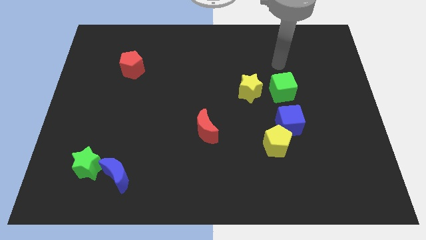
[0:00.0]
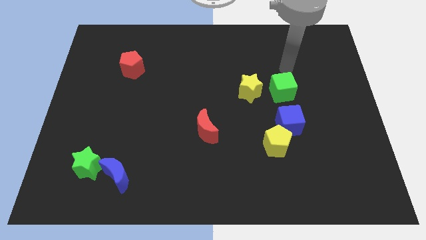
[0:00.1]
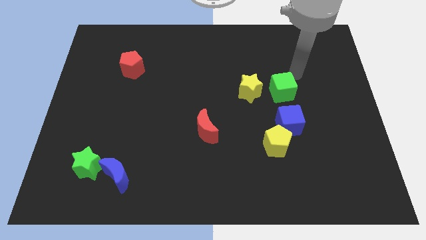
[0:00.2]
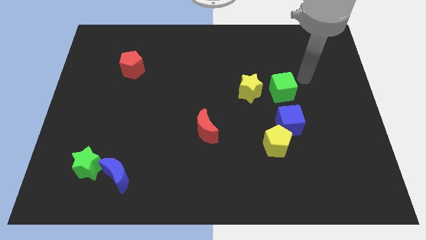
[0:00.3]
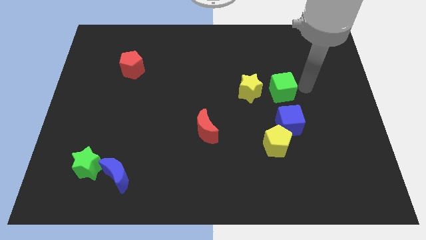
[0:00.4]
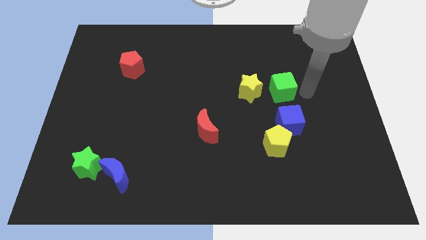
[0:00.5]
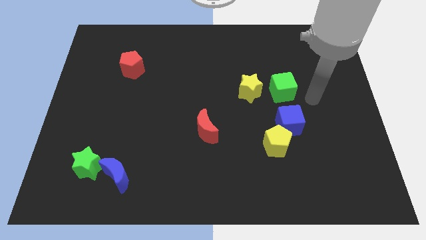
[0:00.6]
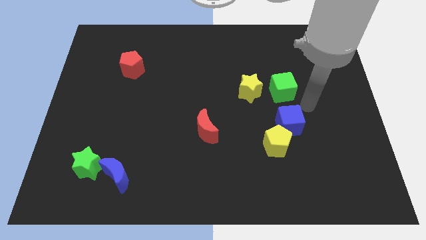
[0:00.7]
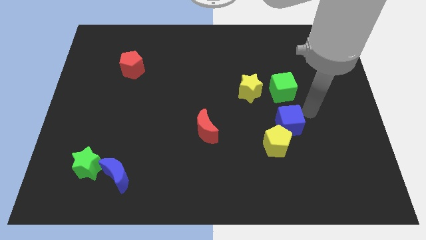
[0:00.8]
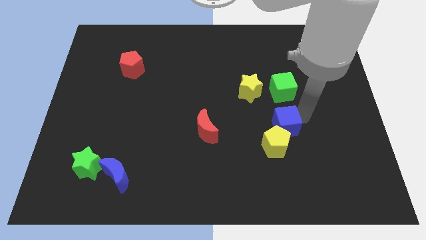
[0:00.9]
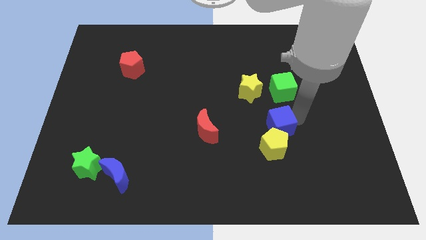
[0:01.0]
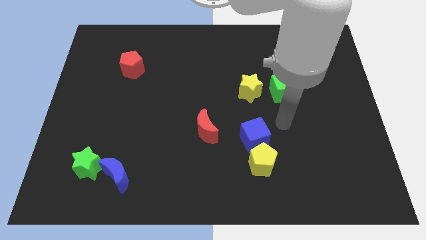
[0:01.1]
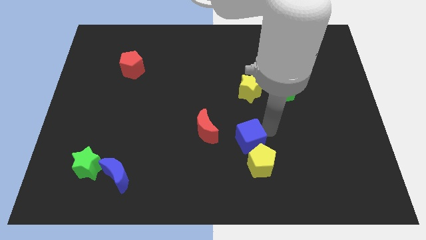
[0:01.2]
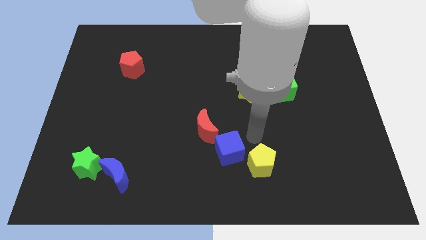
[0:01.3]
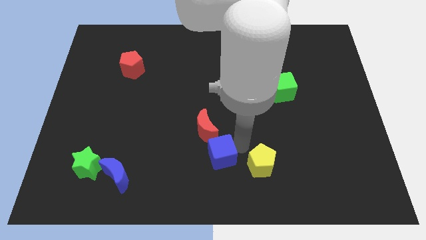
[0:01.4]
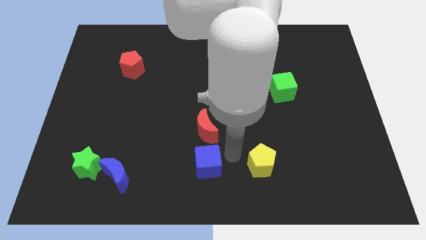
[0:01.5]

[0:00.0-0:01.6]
move the yellow pentagon away from the blue cube

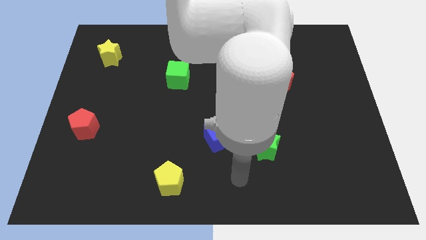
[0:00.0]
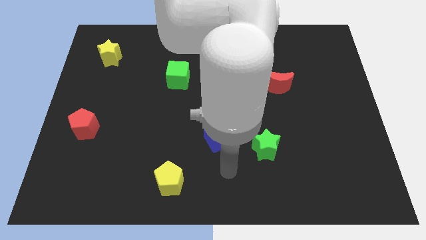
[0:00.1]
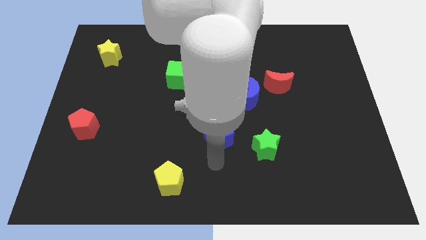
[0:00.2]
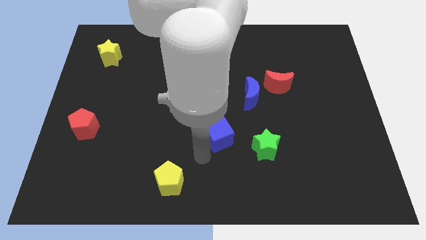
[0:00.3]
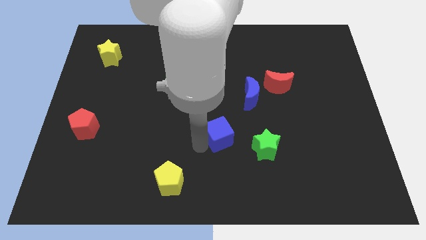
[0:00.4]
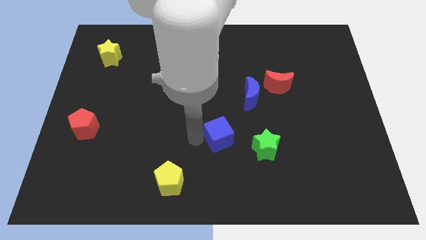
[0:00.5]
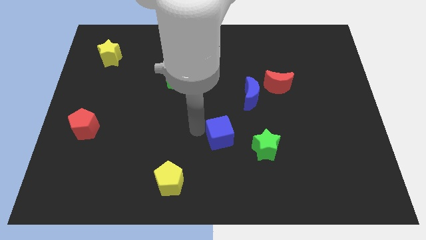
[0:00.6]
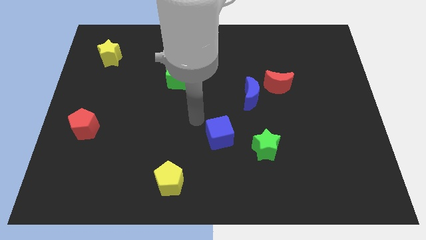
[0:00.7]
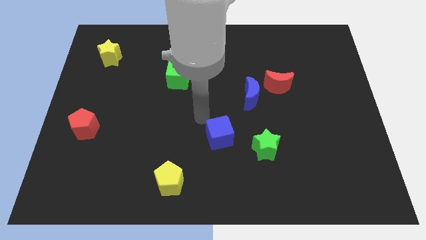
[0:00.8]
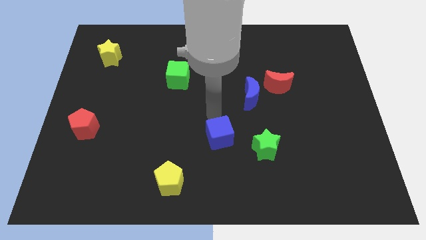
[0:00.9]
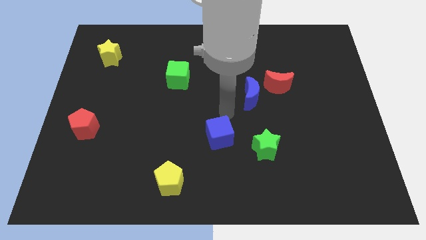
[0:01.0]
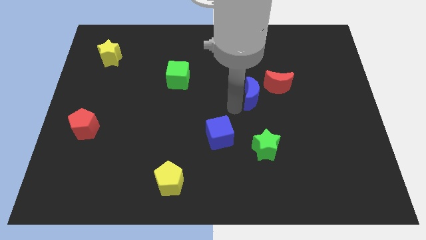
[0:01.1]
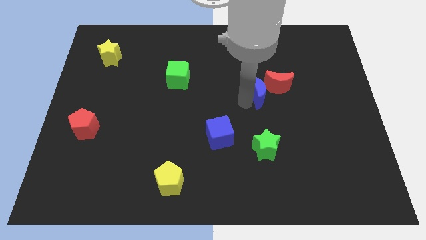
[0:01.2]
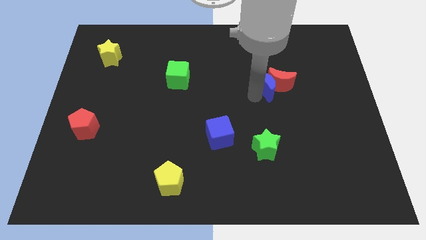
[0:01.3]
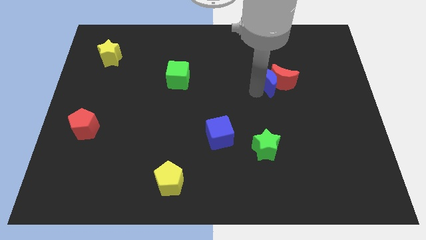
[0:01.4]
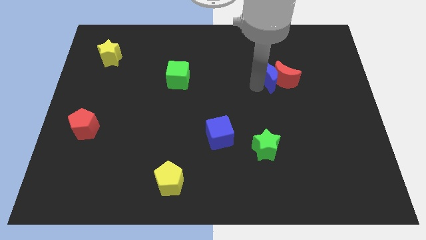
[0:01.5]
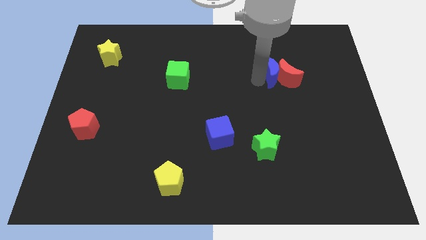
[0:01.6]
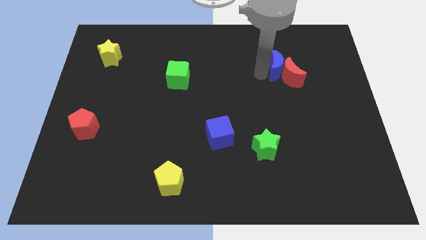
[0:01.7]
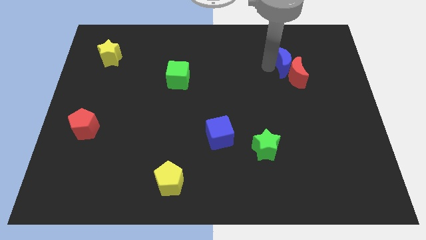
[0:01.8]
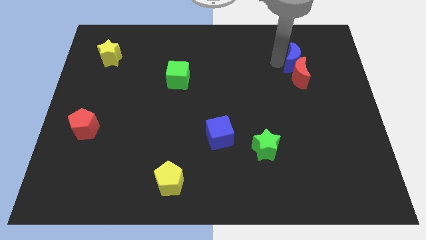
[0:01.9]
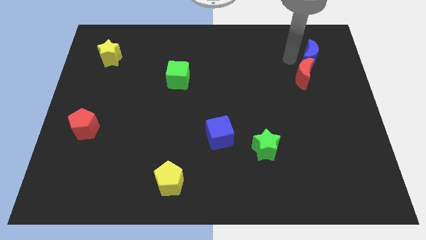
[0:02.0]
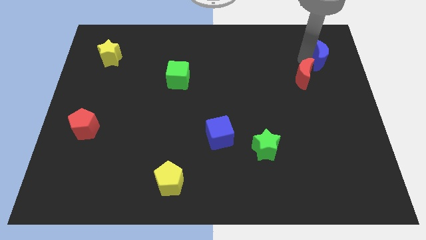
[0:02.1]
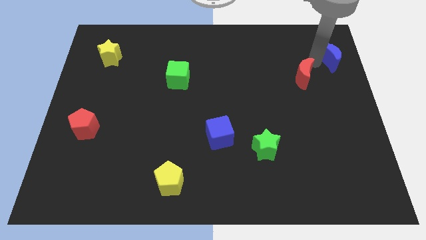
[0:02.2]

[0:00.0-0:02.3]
pull the red moon apart from the blue moon

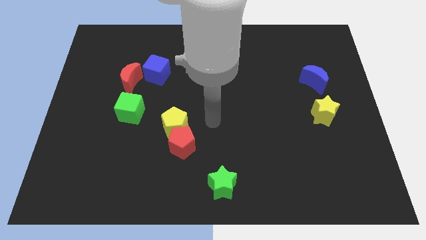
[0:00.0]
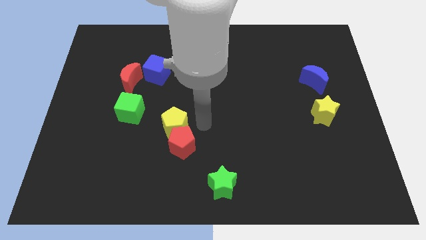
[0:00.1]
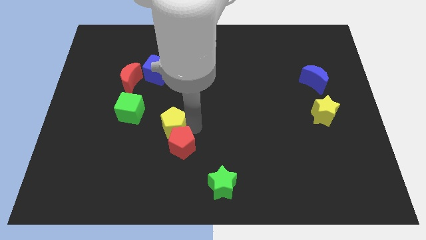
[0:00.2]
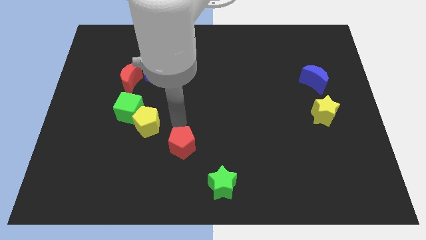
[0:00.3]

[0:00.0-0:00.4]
separate the red pentagon from the yellow pentagon

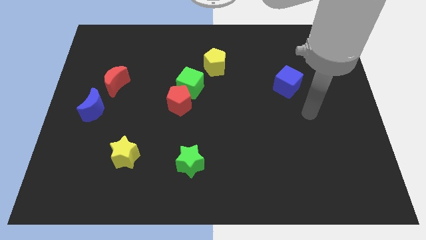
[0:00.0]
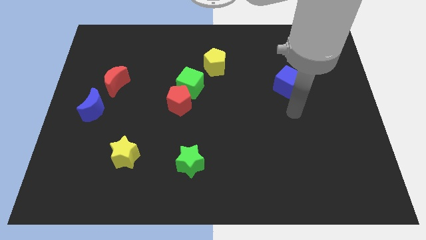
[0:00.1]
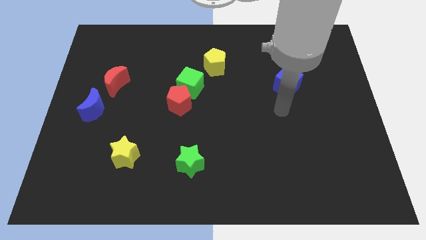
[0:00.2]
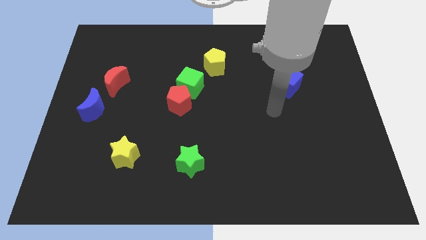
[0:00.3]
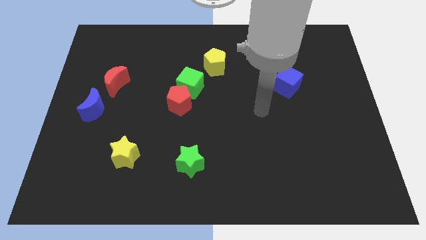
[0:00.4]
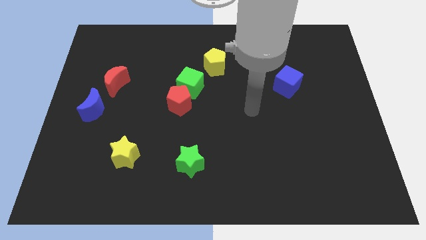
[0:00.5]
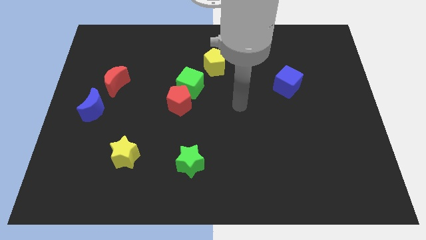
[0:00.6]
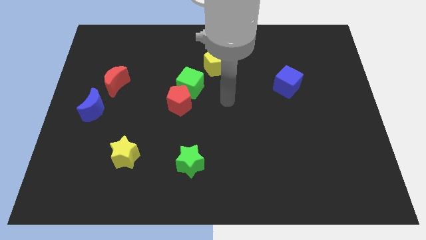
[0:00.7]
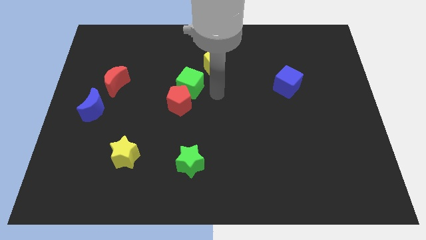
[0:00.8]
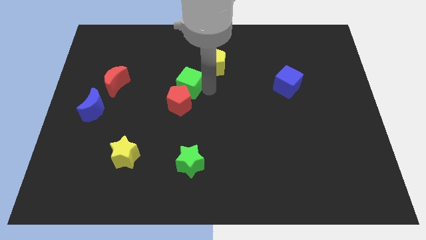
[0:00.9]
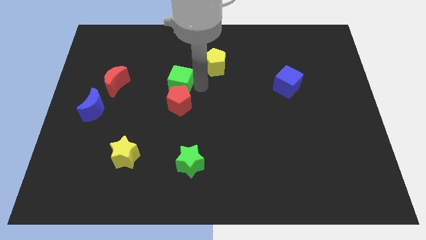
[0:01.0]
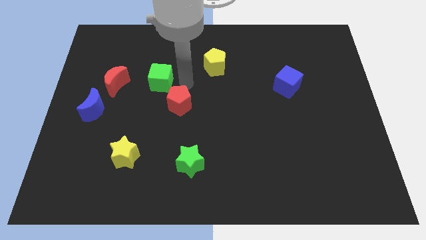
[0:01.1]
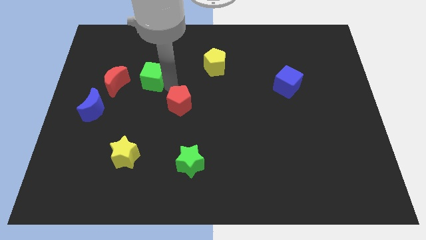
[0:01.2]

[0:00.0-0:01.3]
separate the red pentagon from the green cube

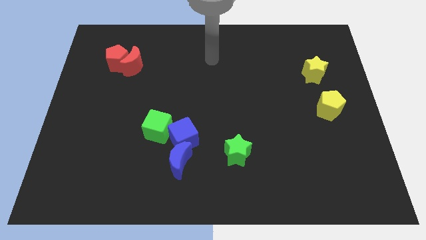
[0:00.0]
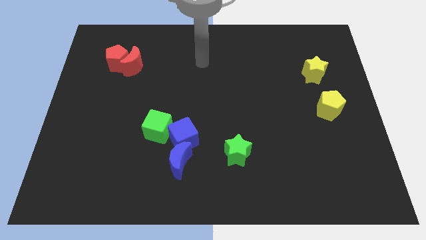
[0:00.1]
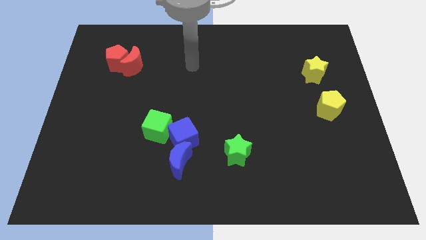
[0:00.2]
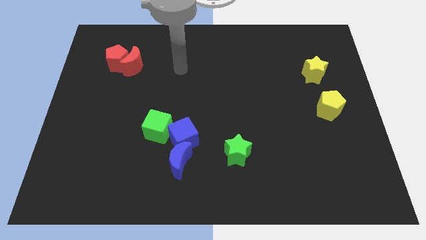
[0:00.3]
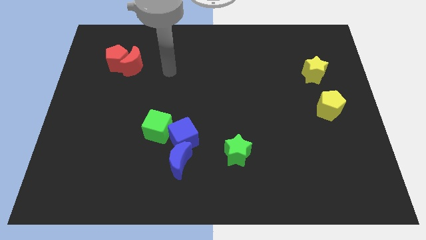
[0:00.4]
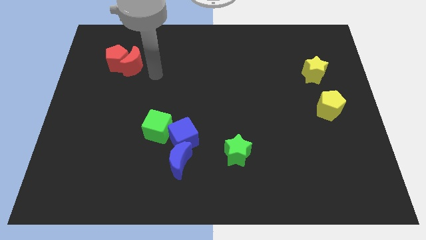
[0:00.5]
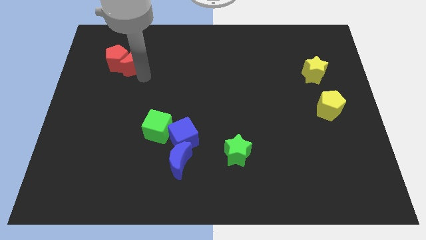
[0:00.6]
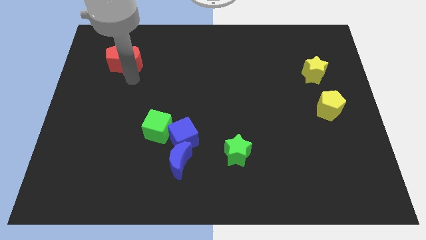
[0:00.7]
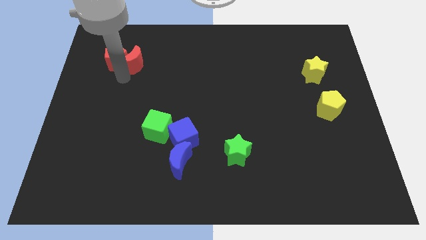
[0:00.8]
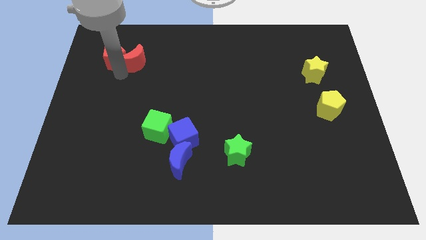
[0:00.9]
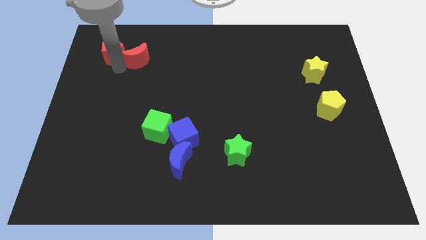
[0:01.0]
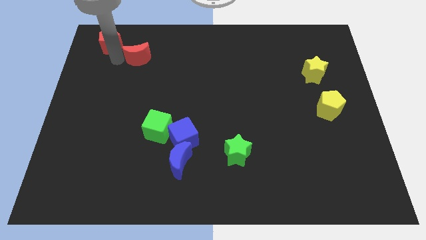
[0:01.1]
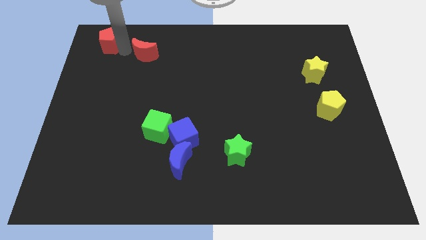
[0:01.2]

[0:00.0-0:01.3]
move the red moon away from the red pentagon

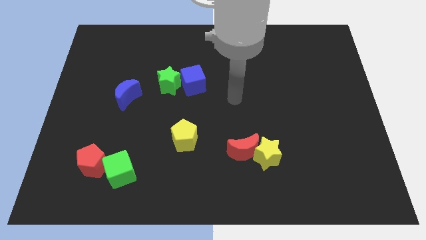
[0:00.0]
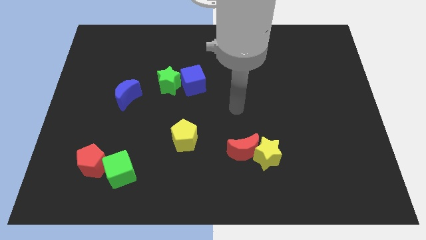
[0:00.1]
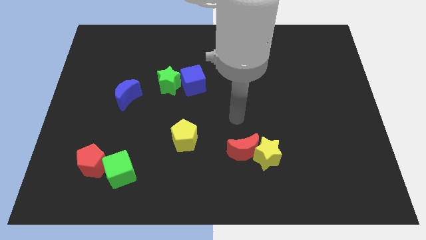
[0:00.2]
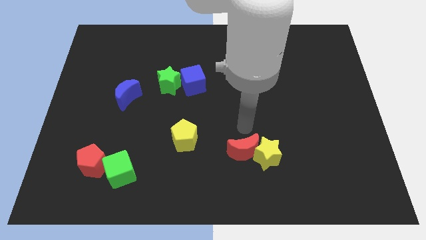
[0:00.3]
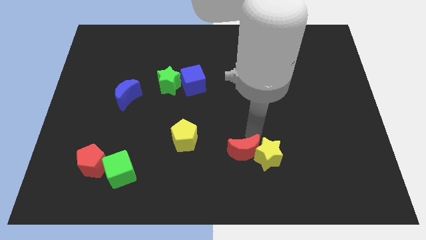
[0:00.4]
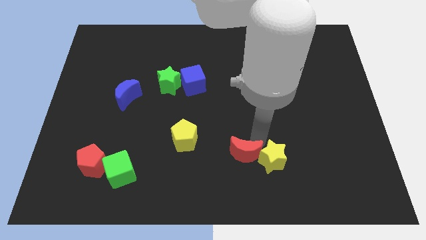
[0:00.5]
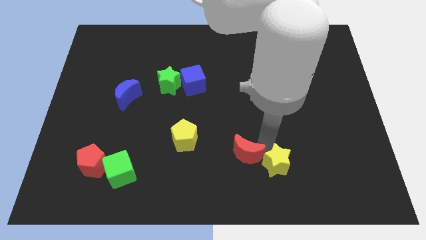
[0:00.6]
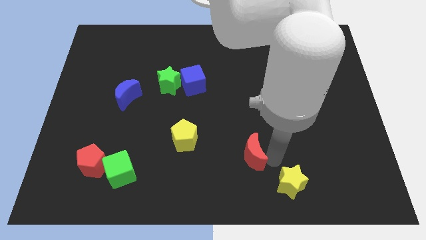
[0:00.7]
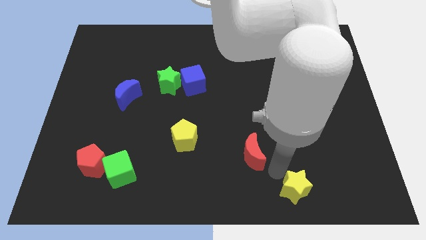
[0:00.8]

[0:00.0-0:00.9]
separate the red moon from the yellow star

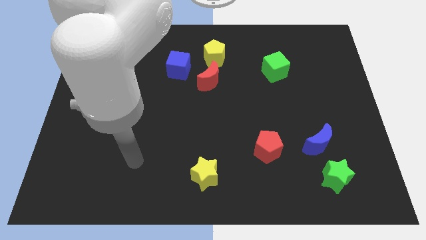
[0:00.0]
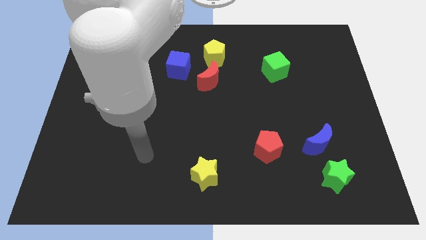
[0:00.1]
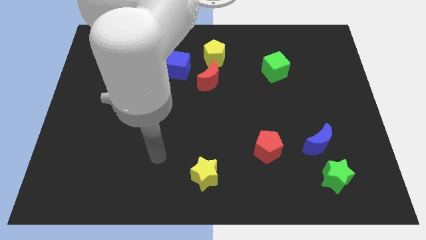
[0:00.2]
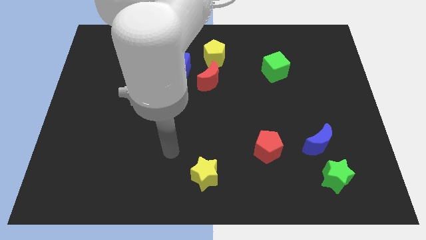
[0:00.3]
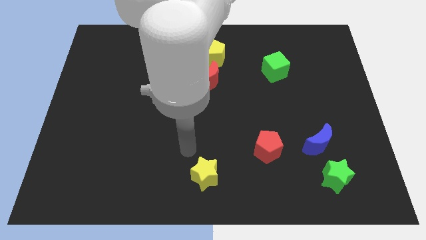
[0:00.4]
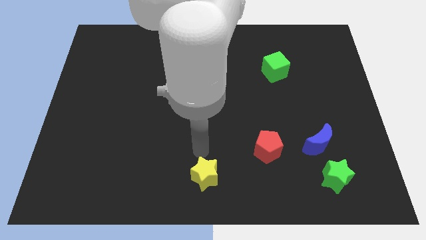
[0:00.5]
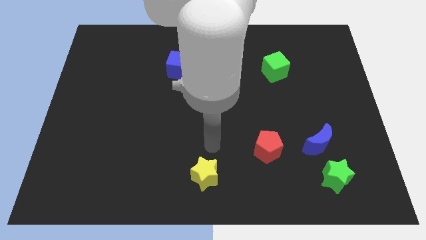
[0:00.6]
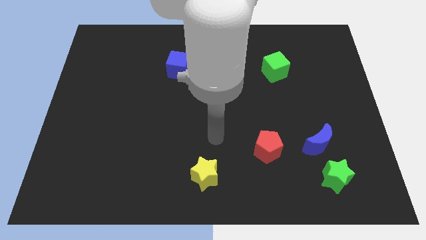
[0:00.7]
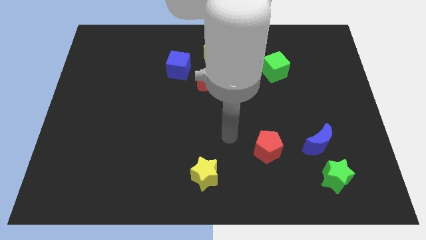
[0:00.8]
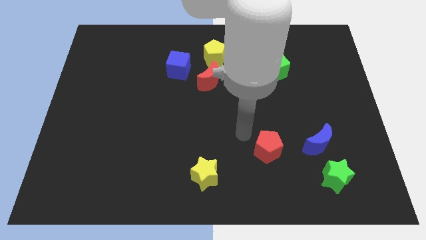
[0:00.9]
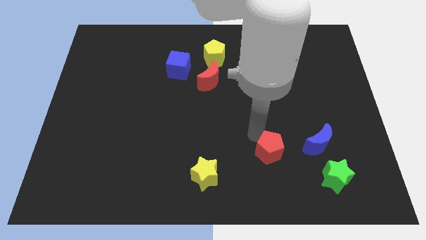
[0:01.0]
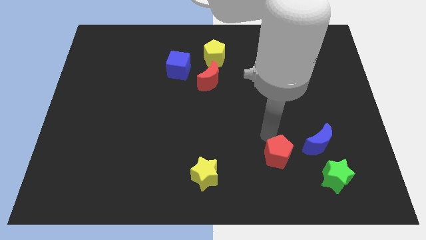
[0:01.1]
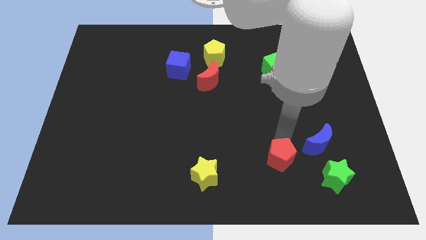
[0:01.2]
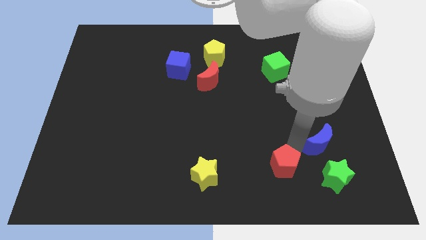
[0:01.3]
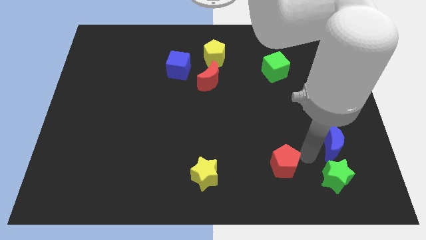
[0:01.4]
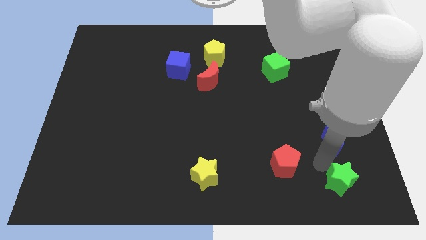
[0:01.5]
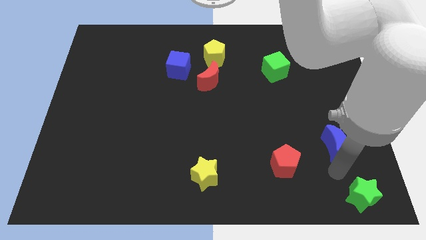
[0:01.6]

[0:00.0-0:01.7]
separate the blue moon from the green star
